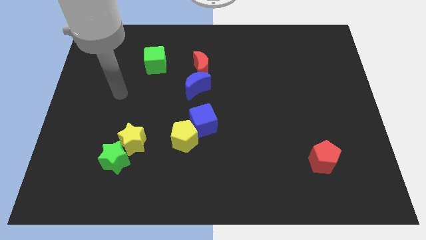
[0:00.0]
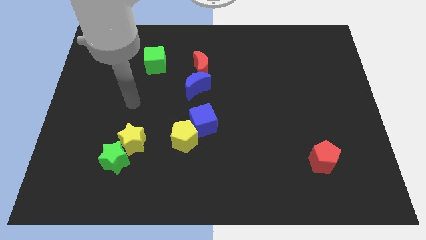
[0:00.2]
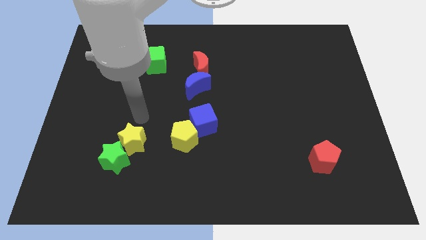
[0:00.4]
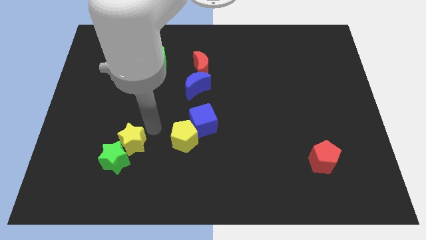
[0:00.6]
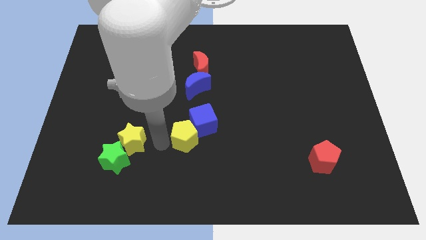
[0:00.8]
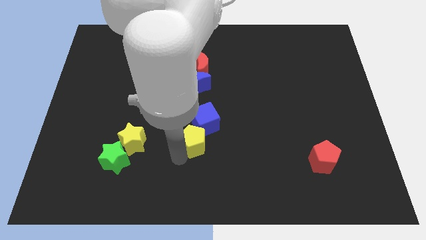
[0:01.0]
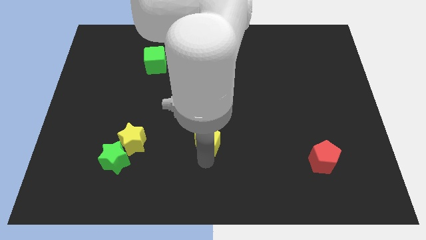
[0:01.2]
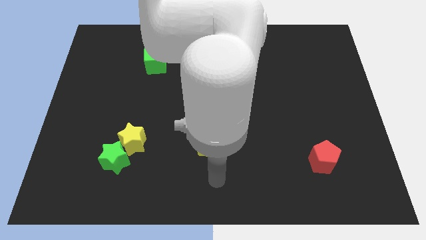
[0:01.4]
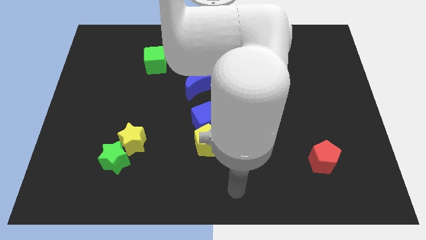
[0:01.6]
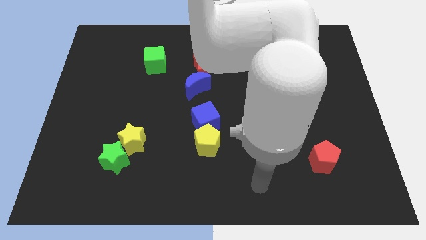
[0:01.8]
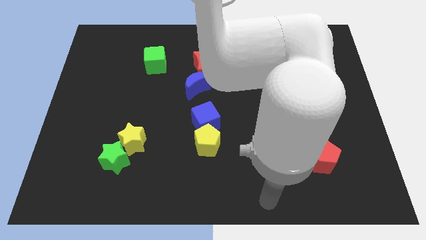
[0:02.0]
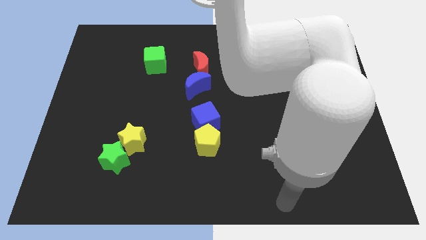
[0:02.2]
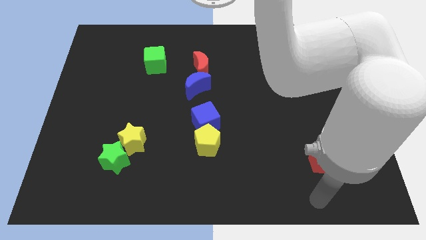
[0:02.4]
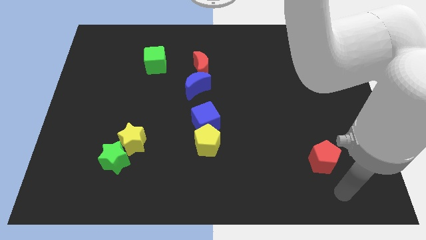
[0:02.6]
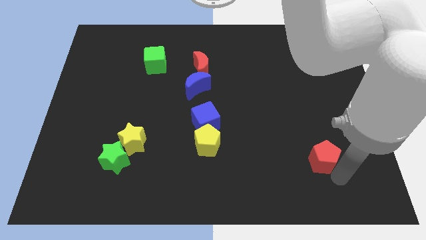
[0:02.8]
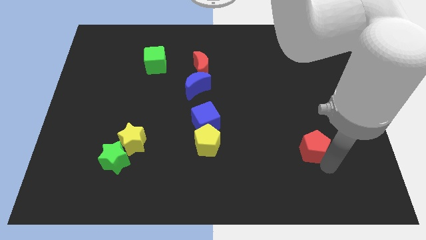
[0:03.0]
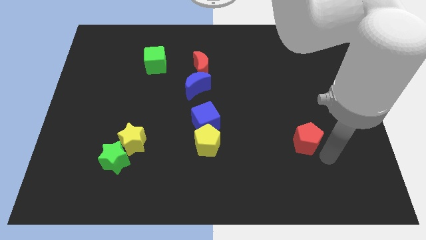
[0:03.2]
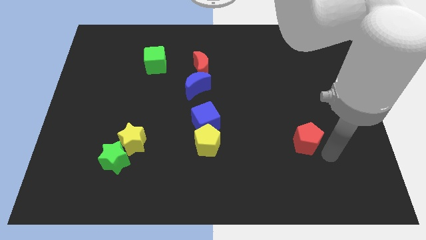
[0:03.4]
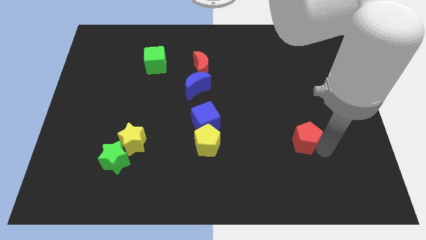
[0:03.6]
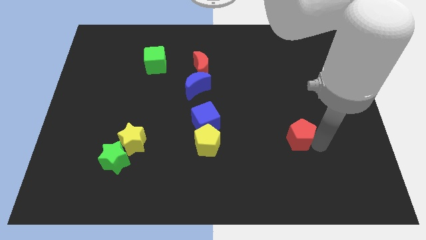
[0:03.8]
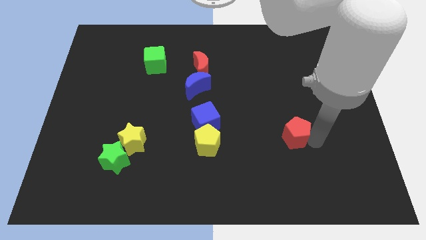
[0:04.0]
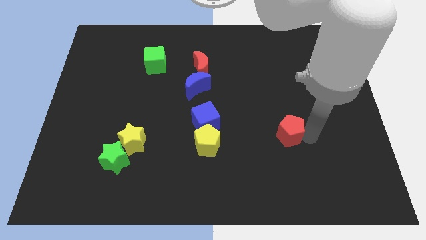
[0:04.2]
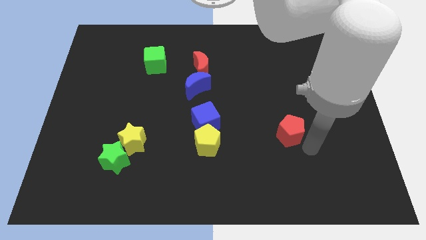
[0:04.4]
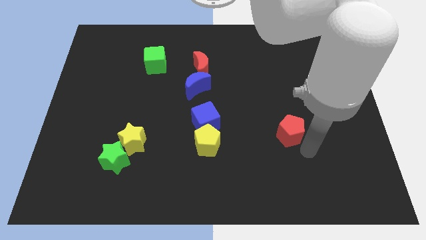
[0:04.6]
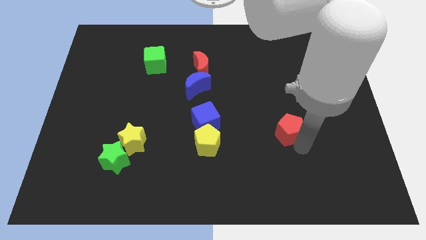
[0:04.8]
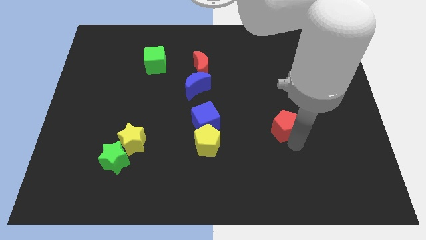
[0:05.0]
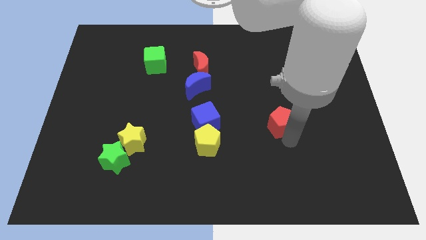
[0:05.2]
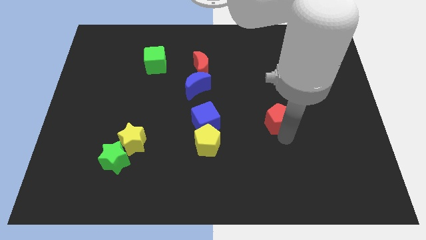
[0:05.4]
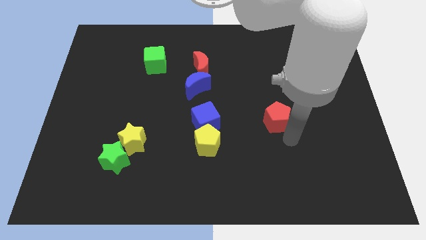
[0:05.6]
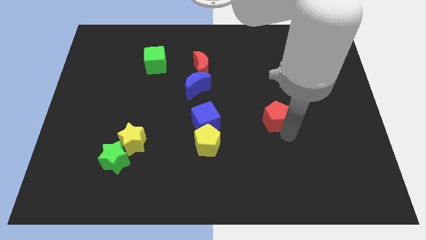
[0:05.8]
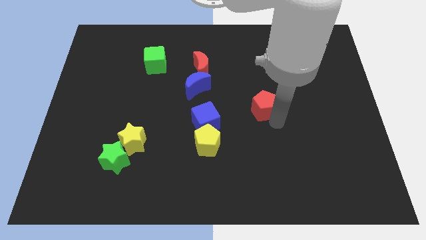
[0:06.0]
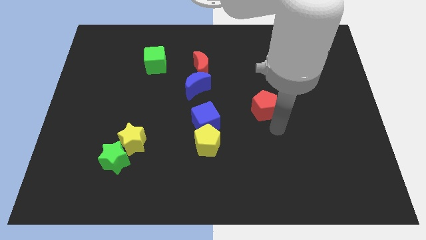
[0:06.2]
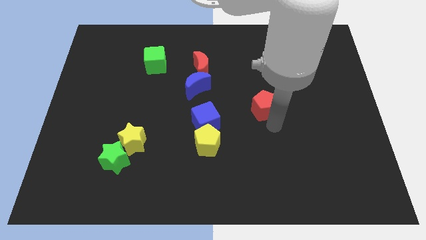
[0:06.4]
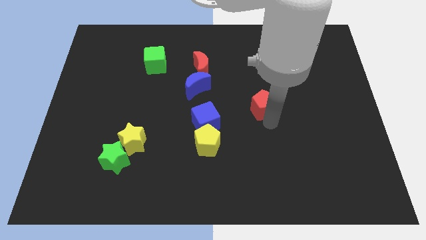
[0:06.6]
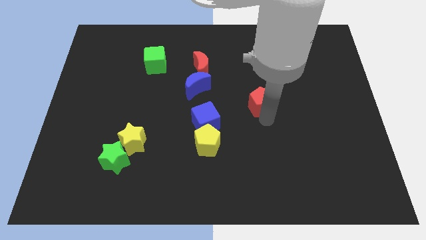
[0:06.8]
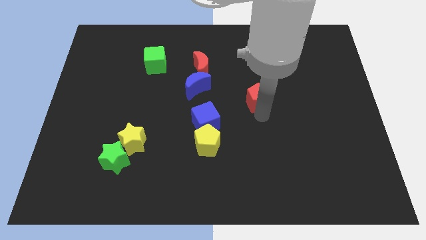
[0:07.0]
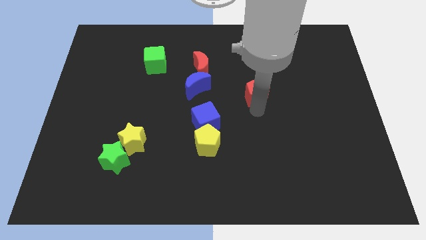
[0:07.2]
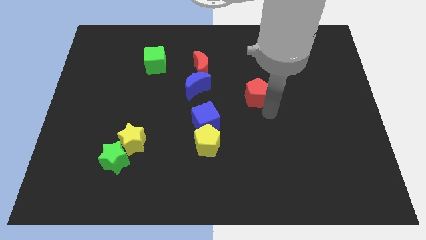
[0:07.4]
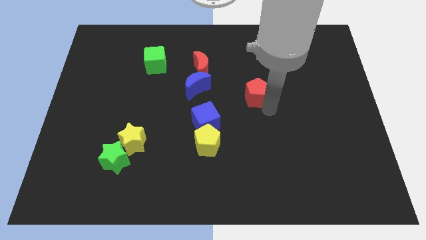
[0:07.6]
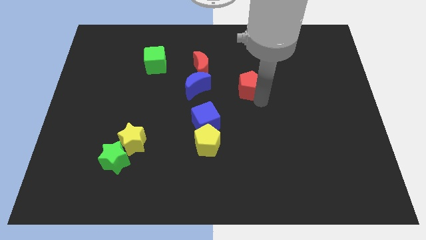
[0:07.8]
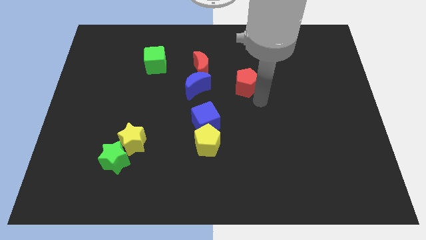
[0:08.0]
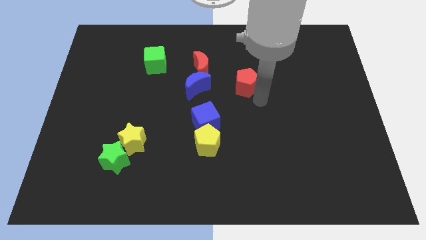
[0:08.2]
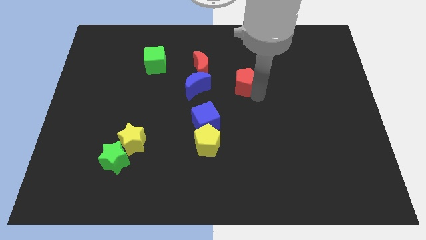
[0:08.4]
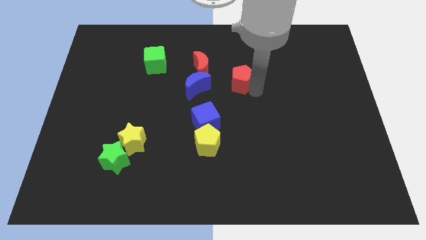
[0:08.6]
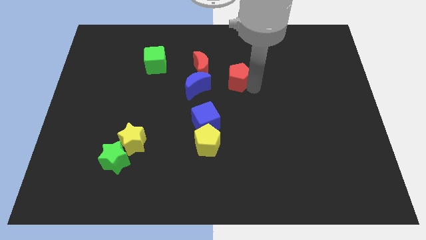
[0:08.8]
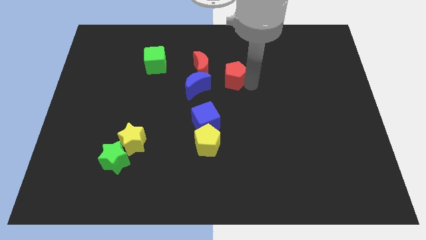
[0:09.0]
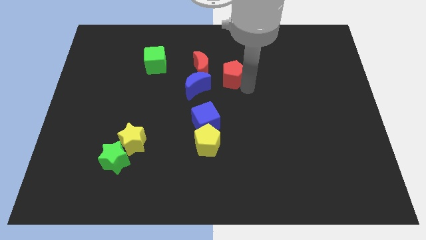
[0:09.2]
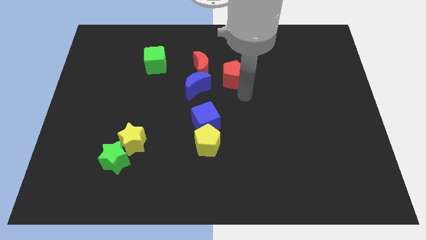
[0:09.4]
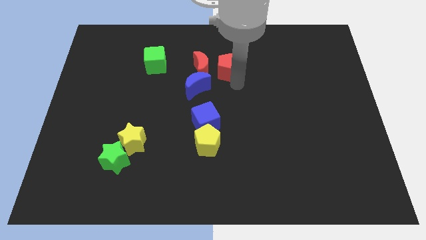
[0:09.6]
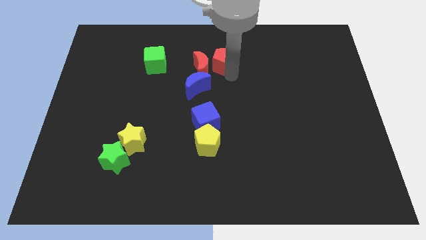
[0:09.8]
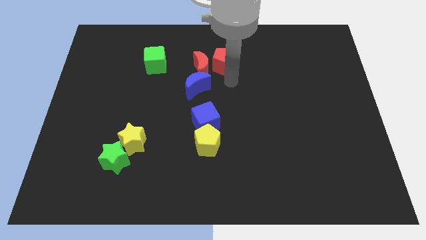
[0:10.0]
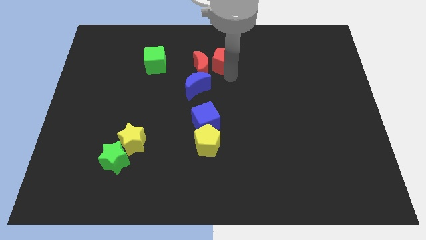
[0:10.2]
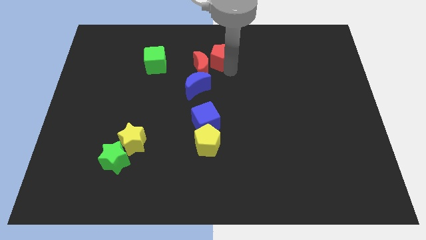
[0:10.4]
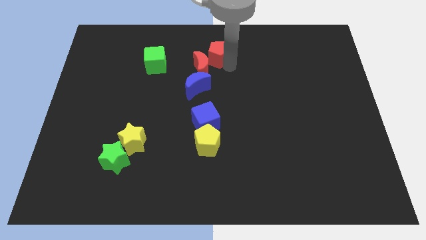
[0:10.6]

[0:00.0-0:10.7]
move the red pentagon to the towards your base

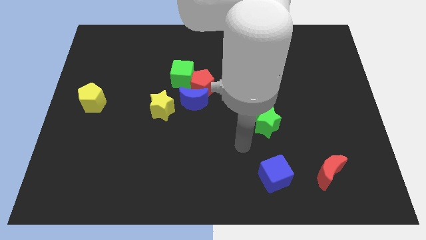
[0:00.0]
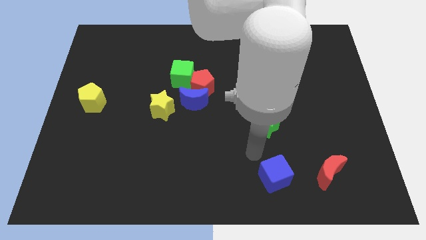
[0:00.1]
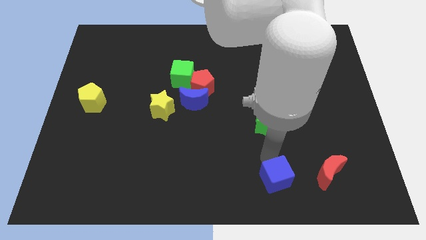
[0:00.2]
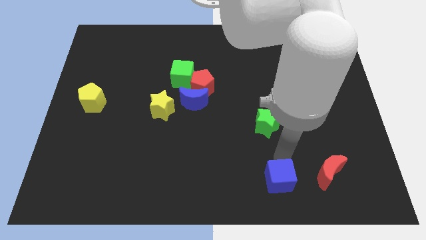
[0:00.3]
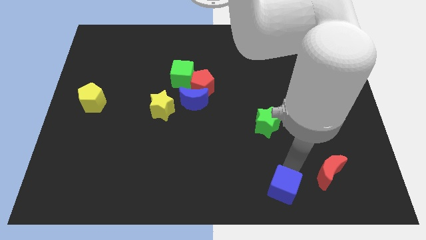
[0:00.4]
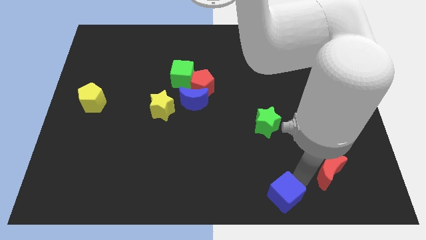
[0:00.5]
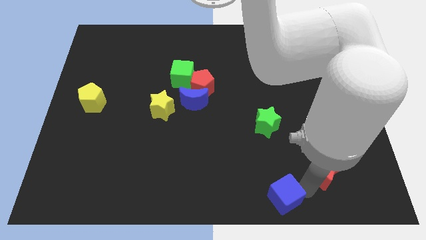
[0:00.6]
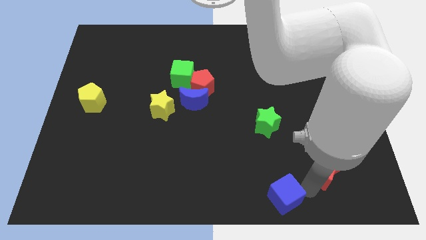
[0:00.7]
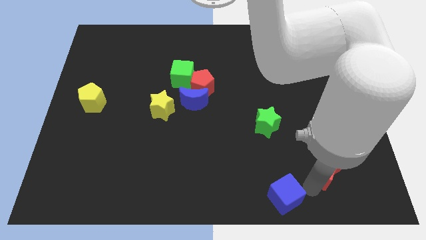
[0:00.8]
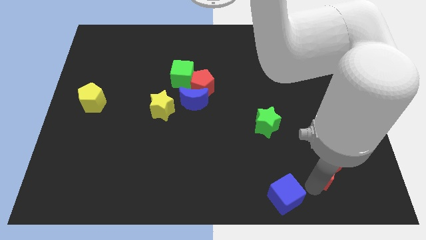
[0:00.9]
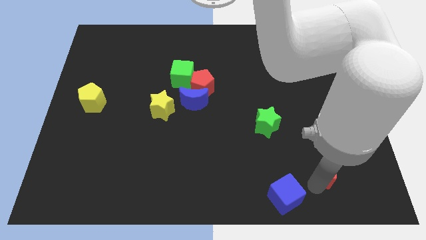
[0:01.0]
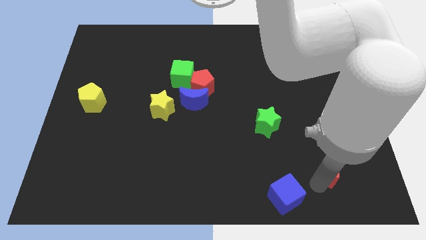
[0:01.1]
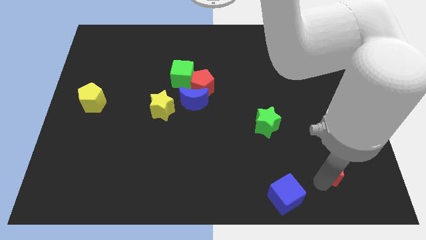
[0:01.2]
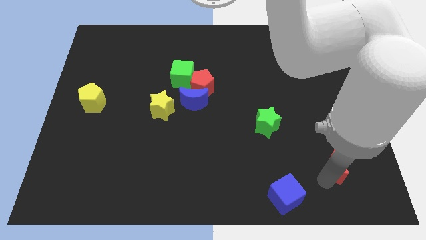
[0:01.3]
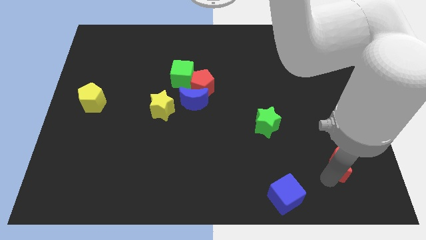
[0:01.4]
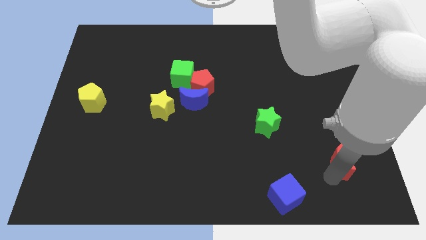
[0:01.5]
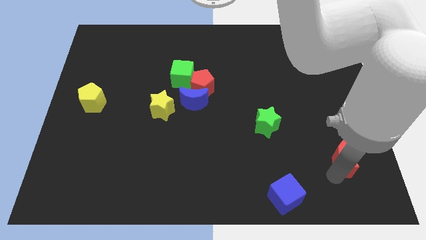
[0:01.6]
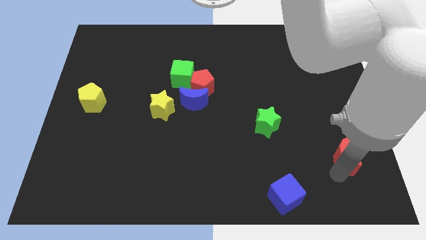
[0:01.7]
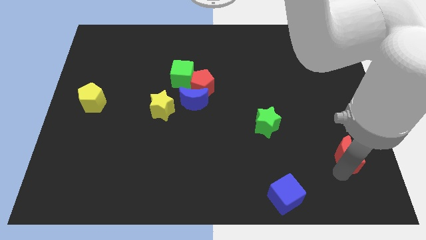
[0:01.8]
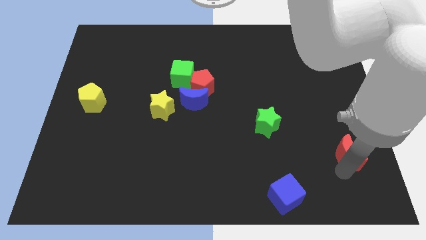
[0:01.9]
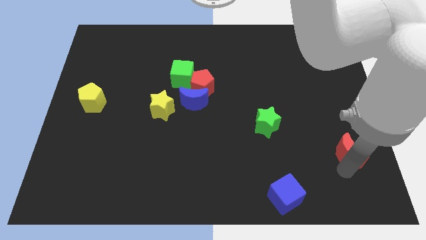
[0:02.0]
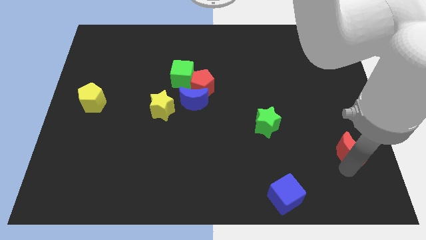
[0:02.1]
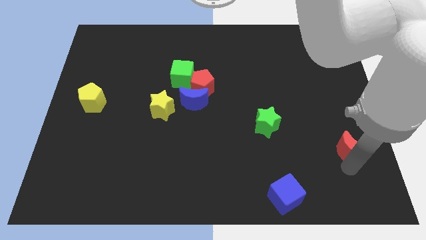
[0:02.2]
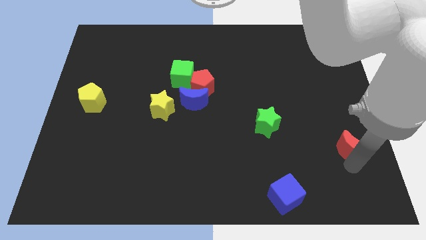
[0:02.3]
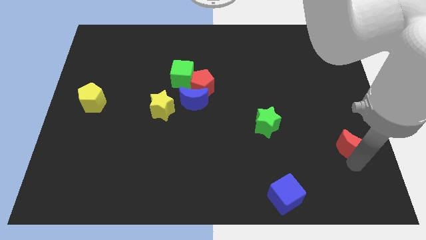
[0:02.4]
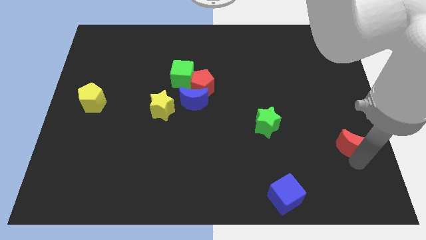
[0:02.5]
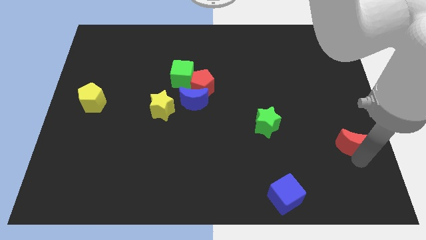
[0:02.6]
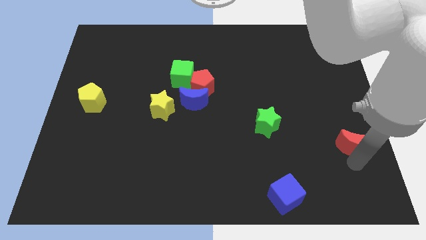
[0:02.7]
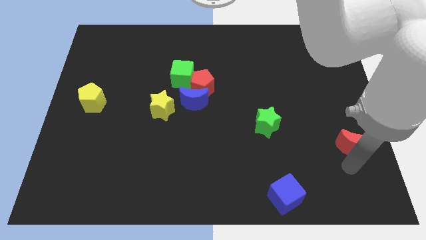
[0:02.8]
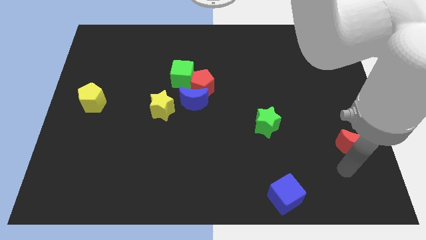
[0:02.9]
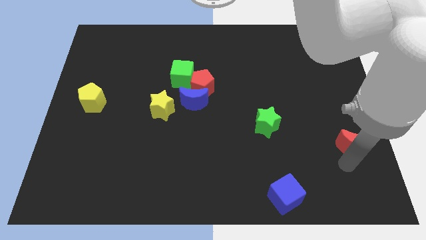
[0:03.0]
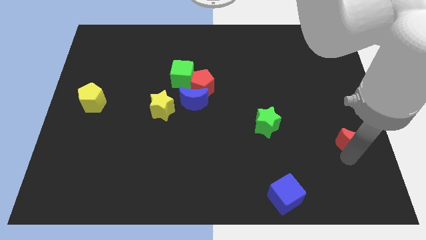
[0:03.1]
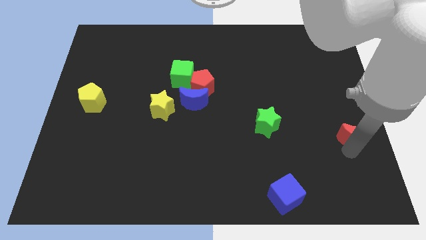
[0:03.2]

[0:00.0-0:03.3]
put the red moon to the center right
